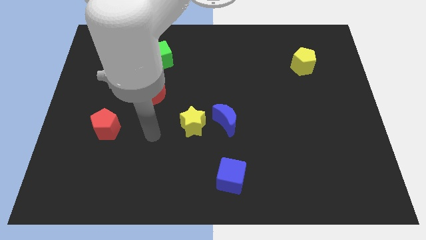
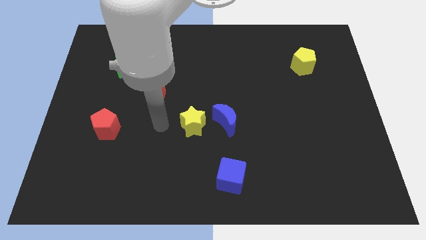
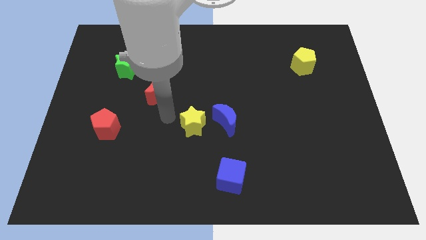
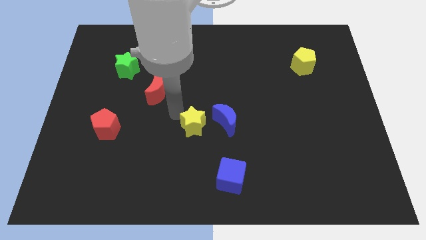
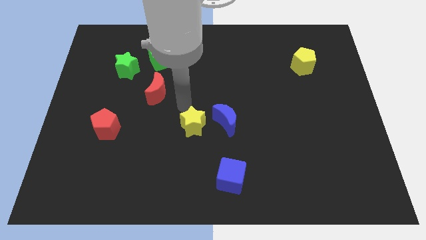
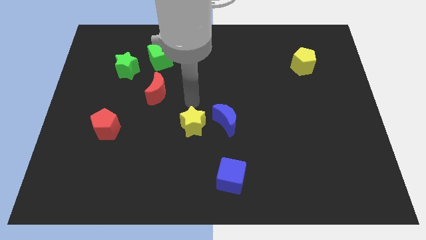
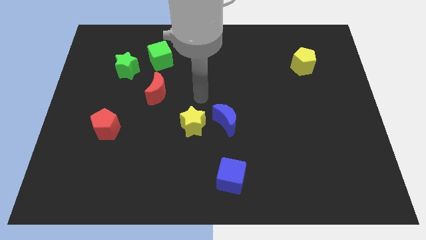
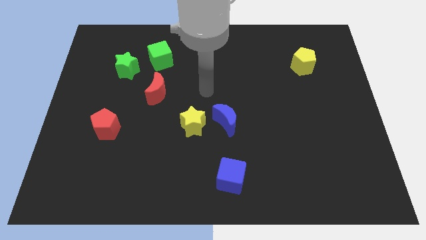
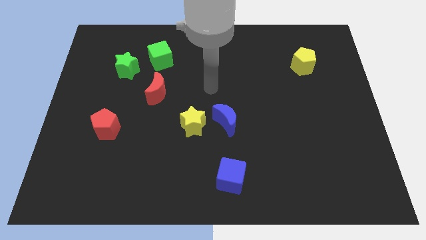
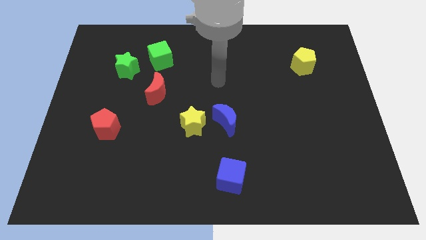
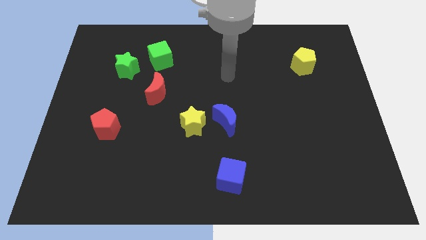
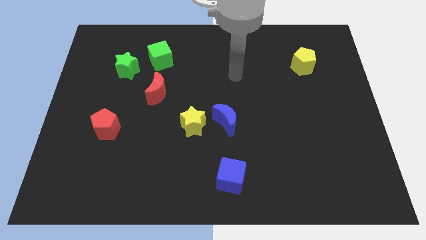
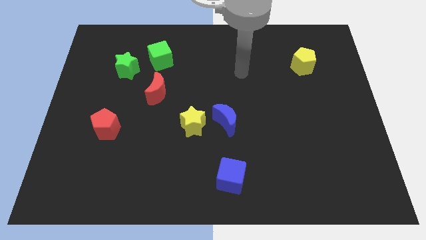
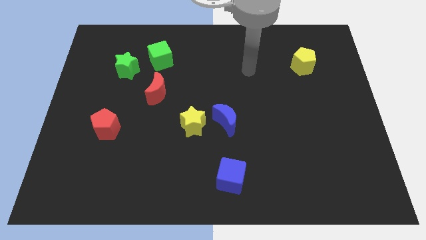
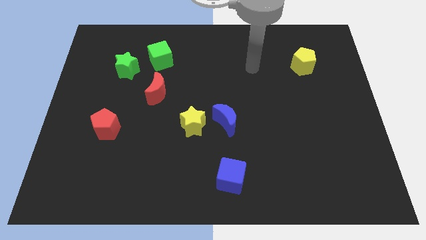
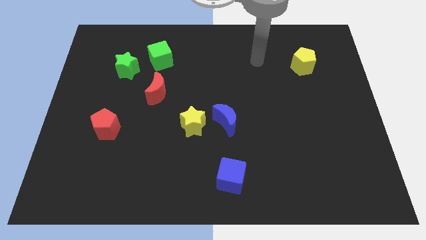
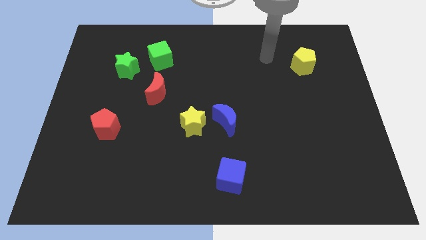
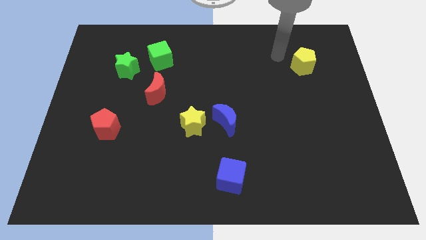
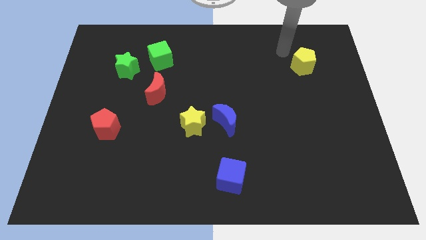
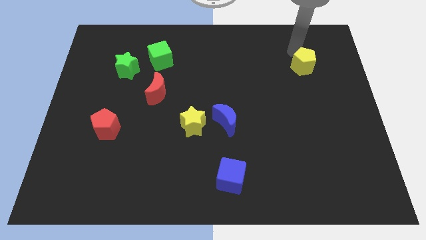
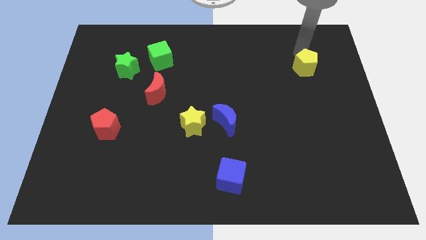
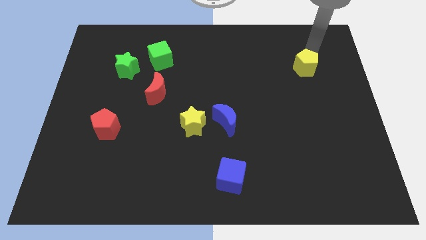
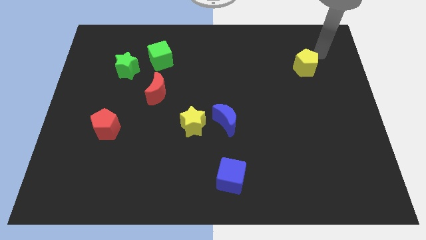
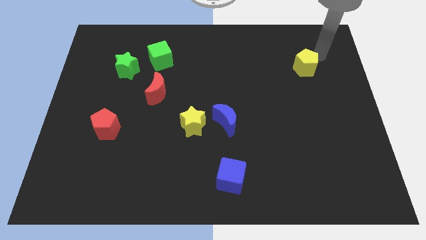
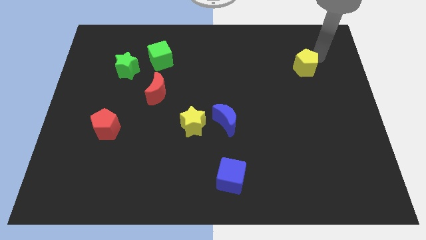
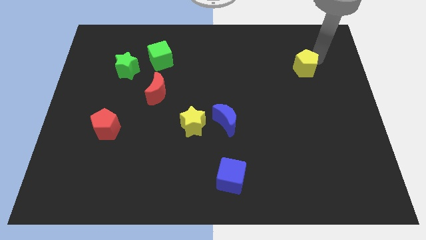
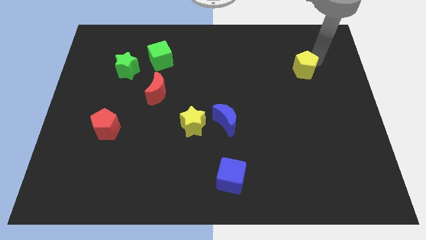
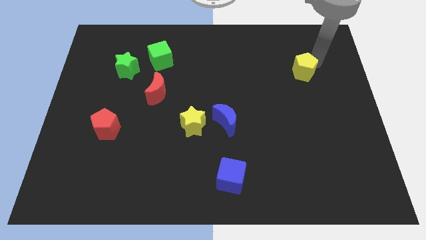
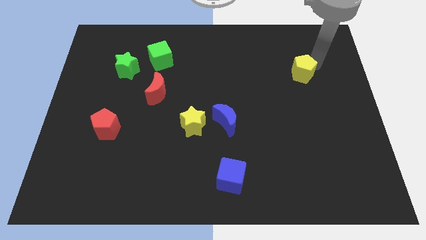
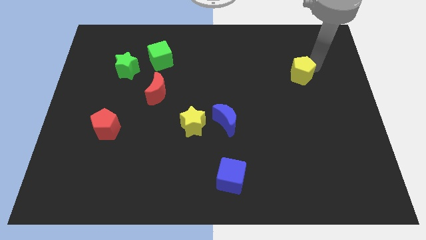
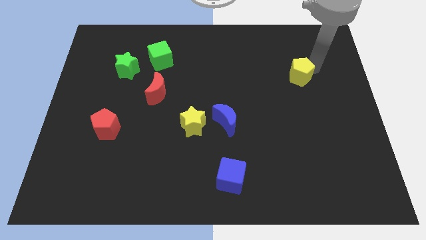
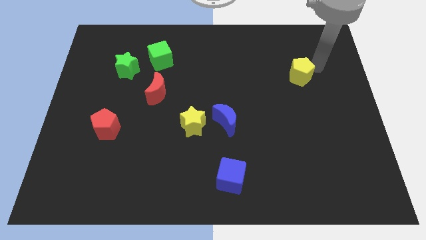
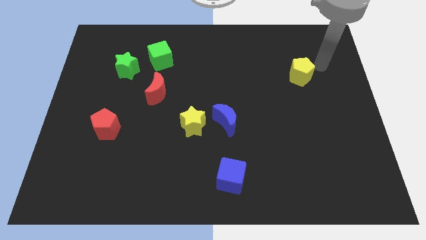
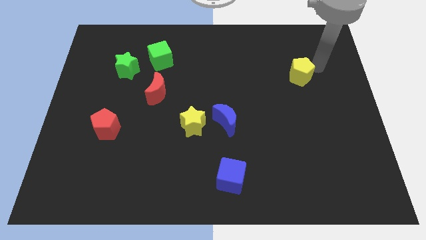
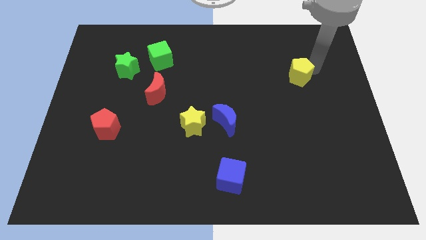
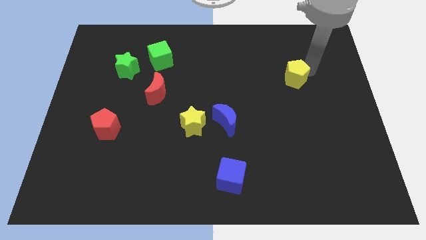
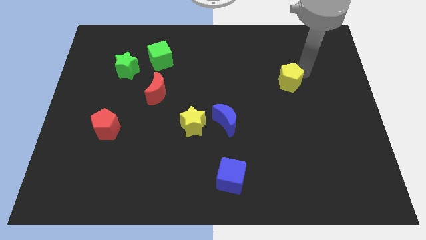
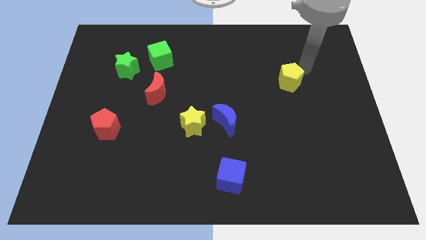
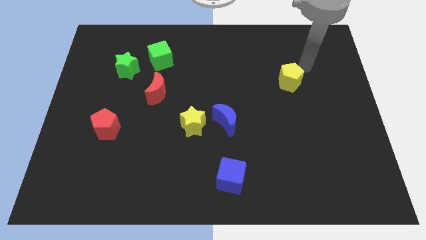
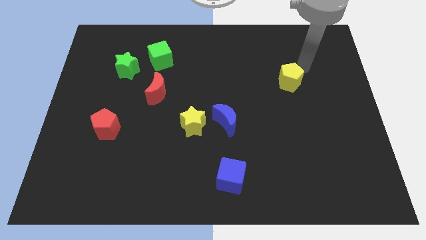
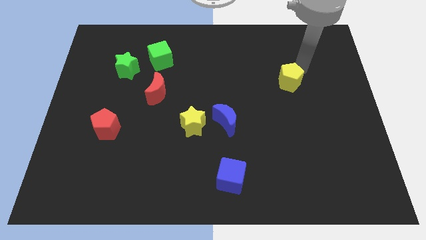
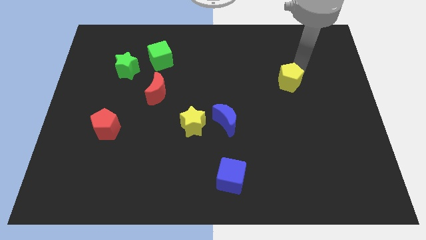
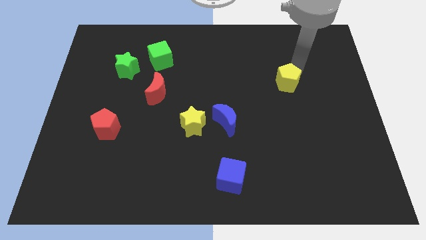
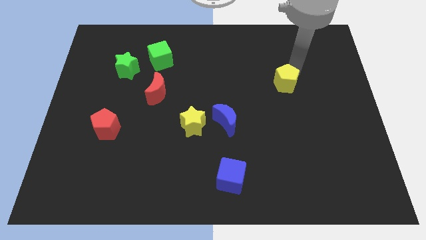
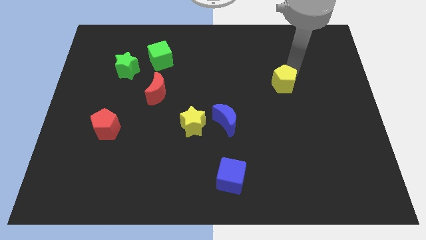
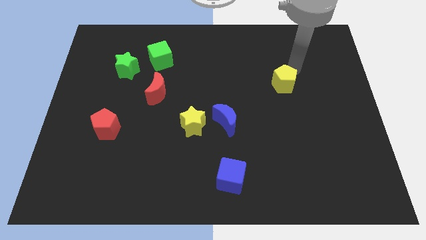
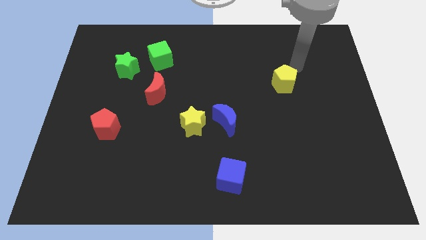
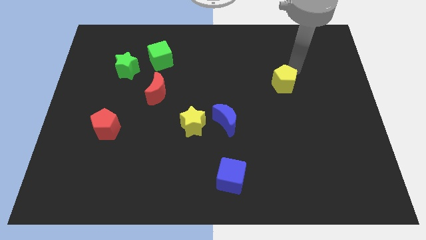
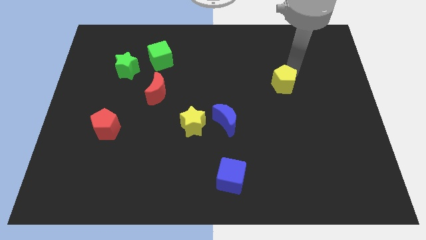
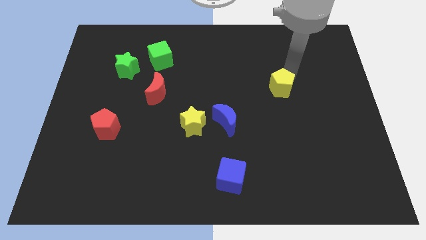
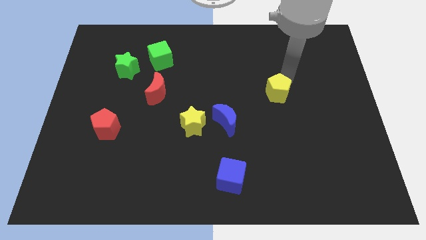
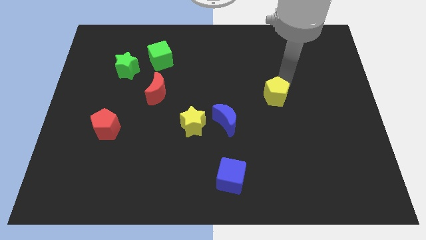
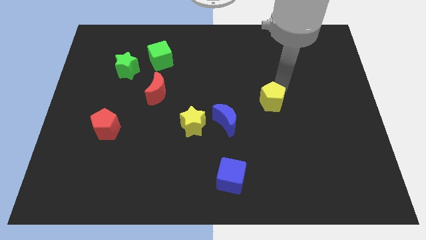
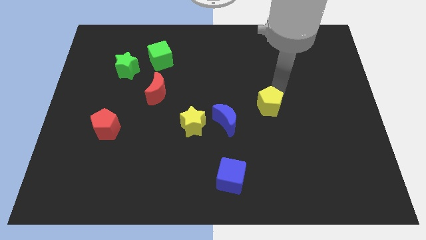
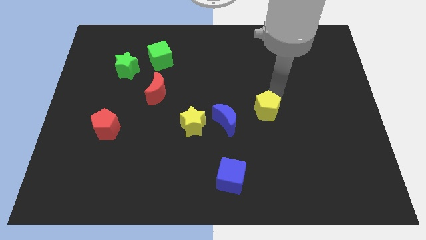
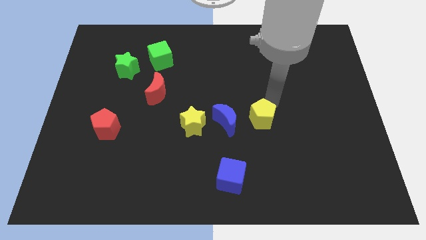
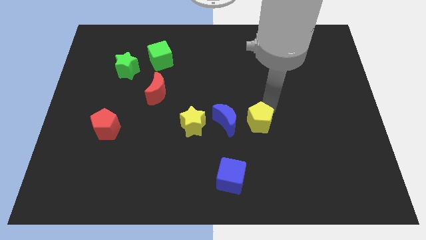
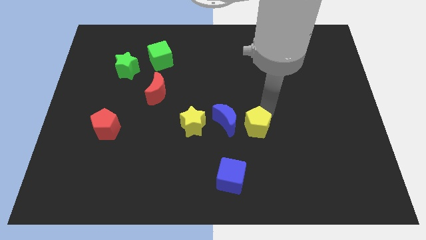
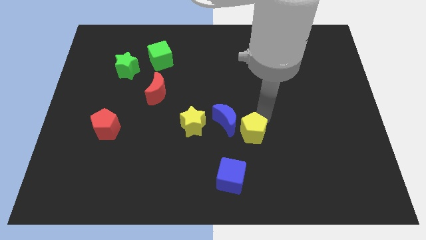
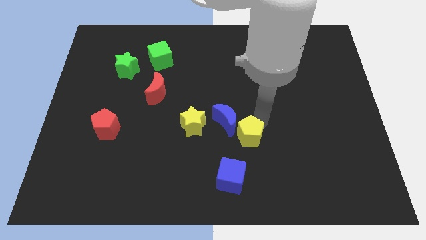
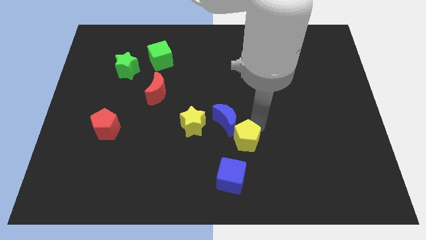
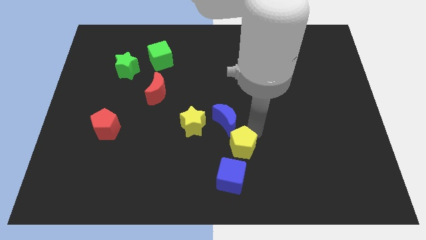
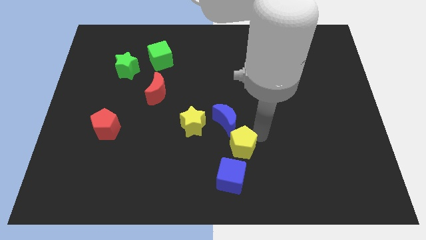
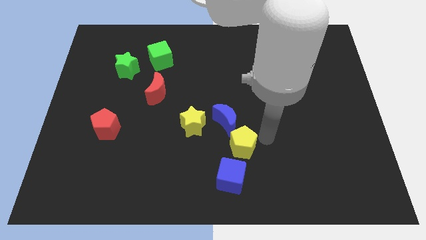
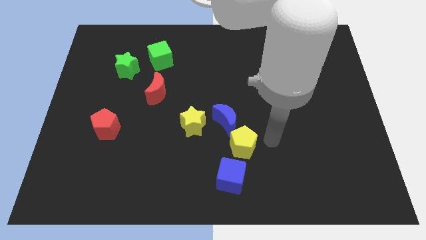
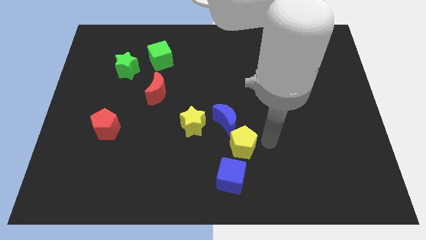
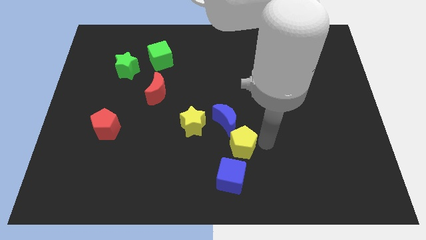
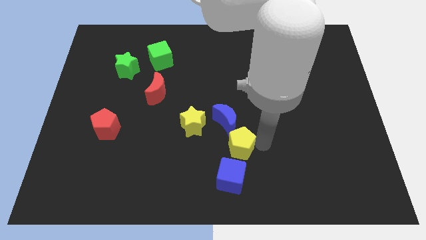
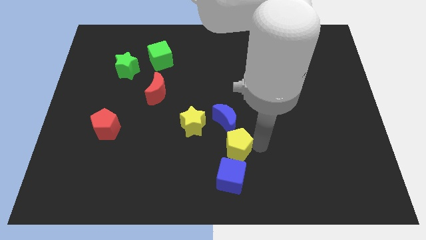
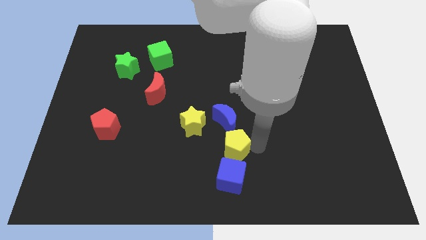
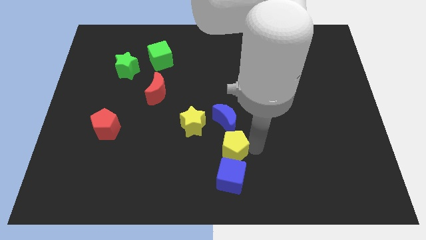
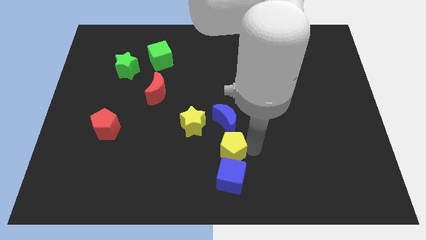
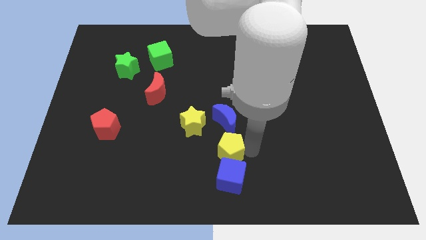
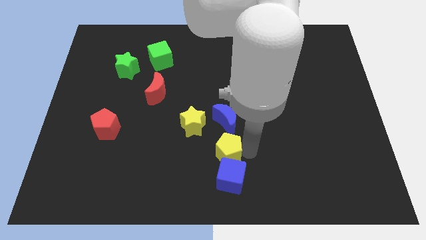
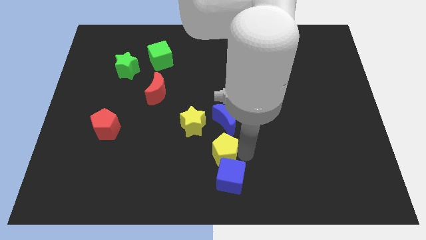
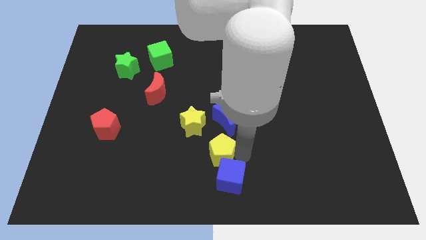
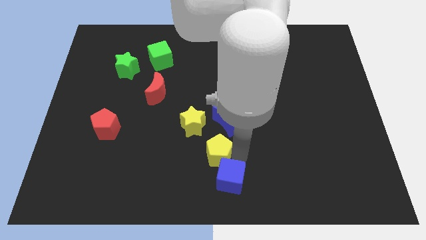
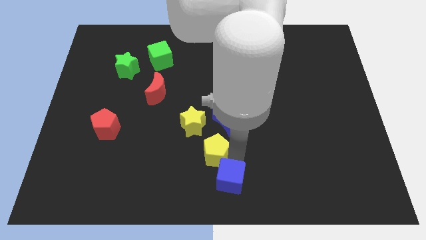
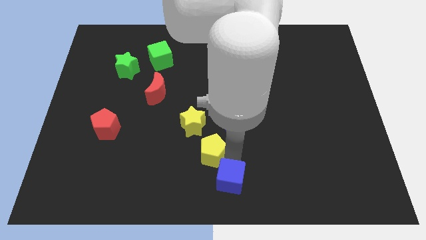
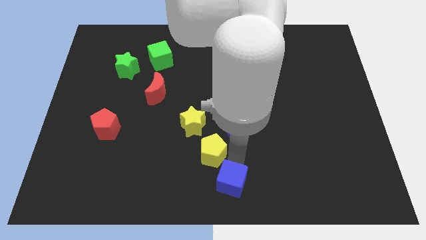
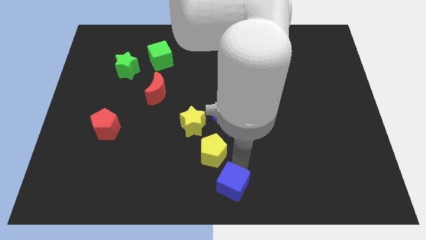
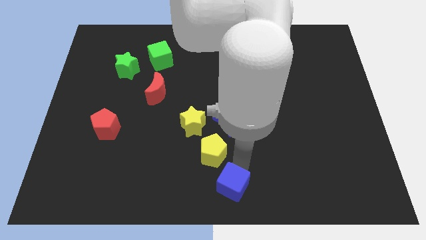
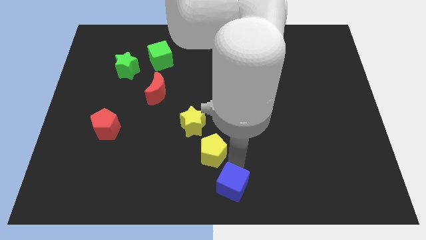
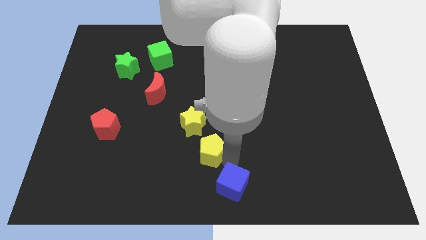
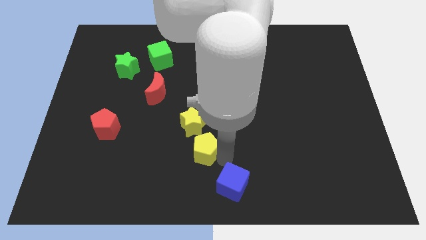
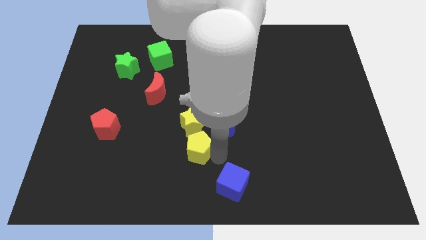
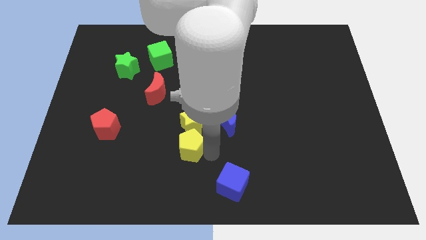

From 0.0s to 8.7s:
move the yellow pentagon diagonally down and to the left of the yellow star
